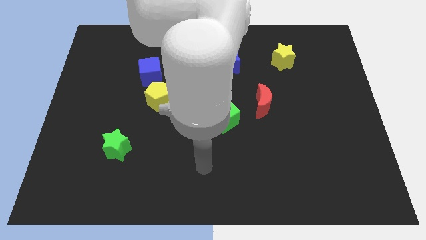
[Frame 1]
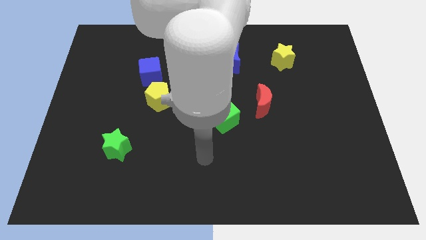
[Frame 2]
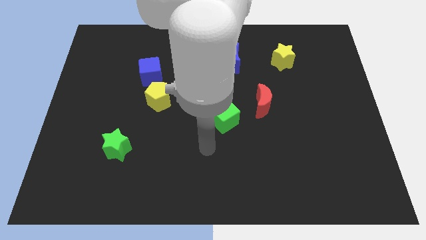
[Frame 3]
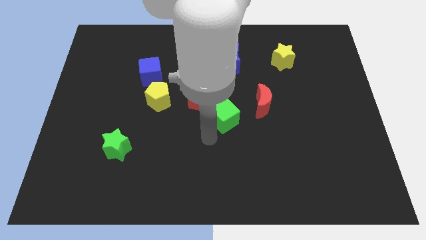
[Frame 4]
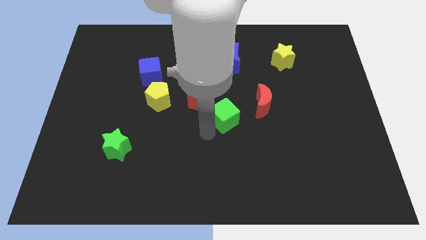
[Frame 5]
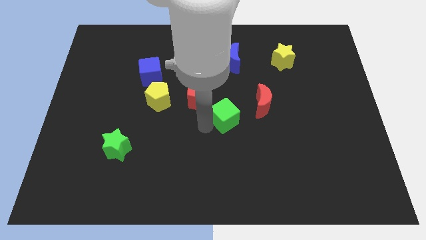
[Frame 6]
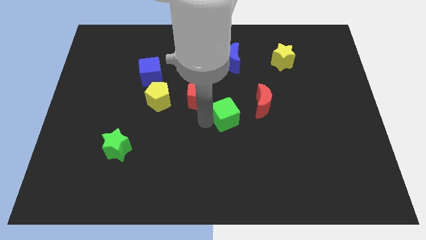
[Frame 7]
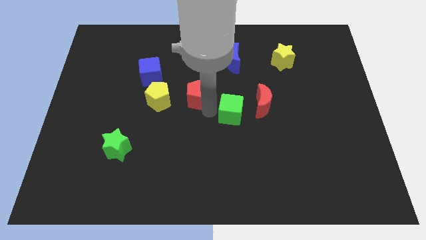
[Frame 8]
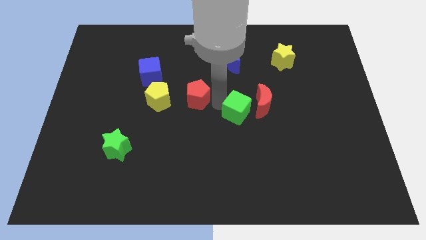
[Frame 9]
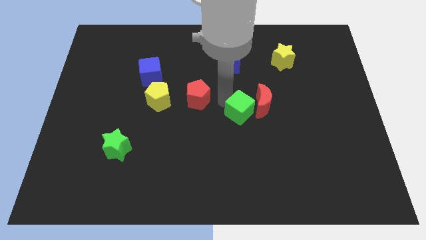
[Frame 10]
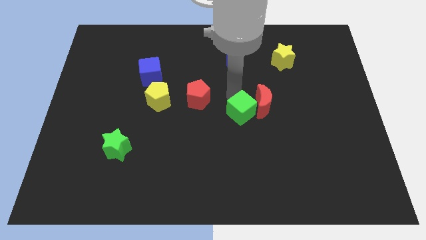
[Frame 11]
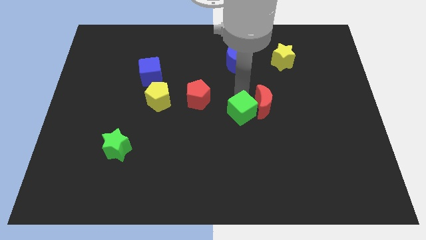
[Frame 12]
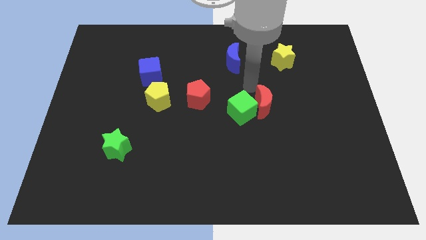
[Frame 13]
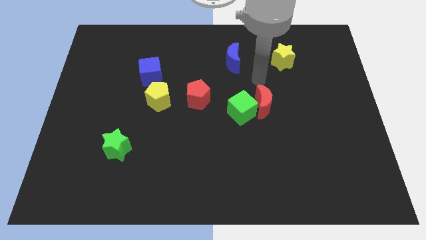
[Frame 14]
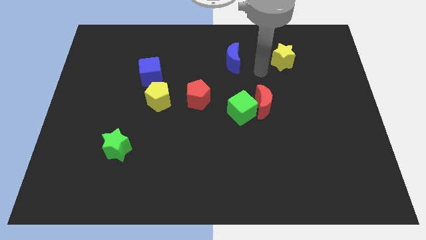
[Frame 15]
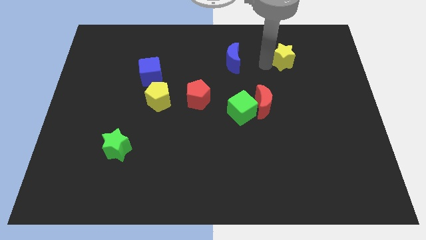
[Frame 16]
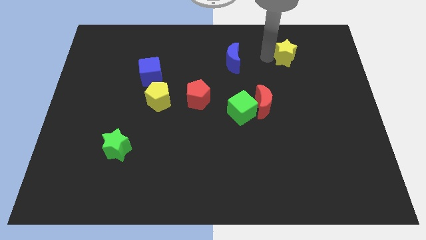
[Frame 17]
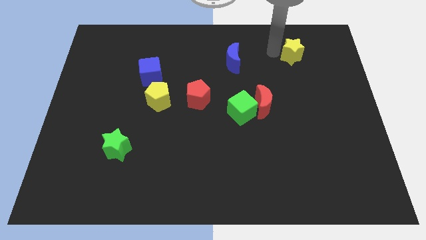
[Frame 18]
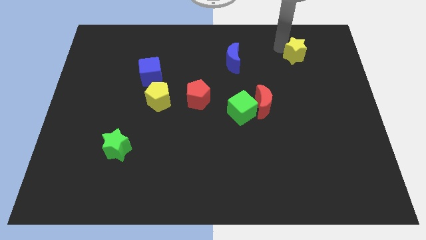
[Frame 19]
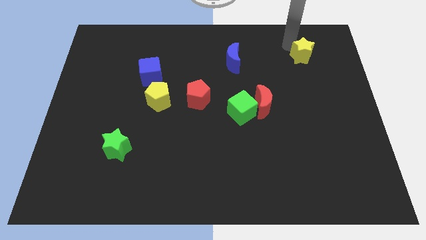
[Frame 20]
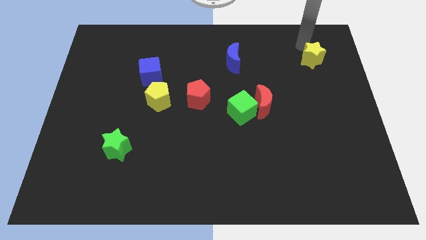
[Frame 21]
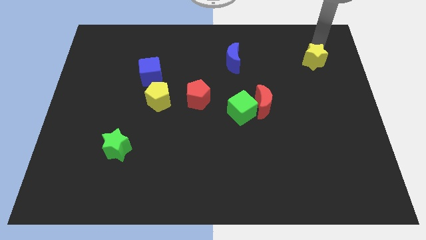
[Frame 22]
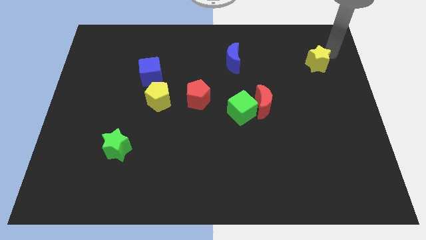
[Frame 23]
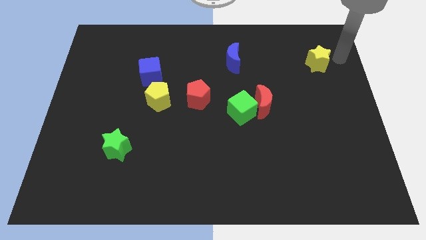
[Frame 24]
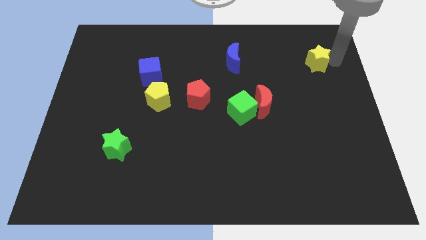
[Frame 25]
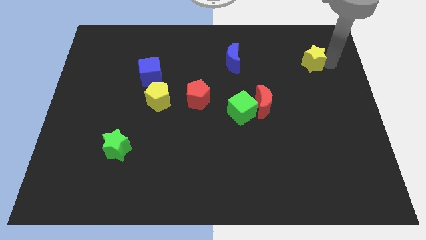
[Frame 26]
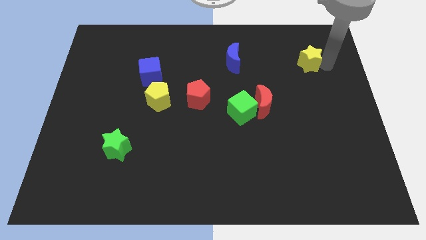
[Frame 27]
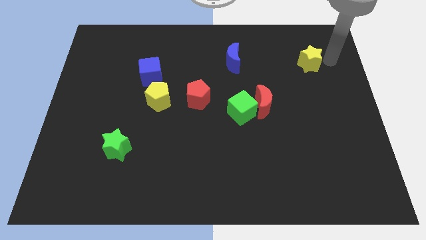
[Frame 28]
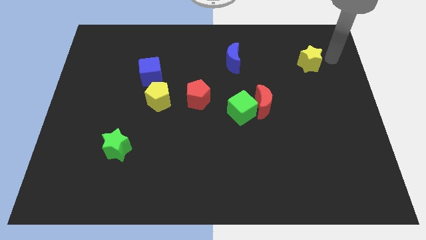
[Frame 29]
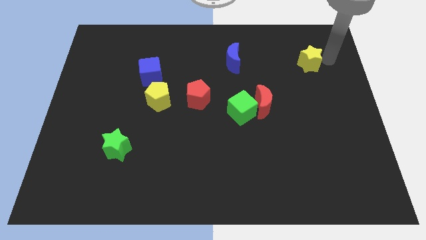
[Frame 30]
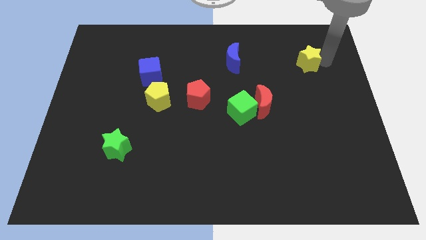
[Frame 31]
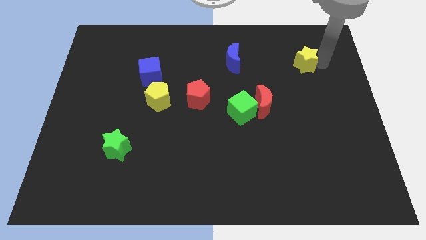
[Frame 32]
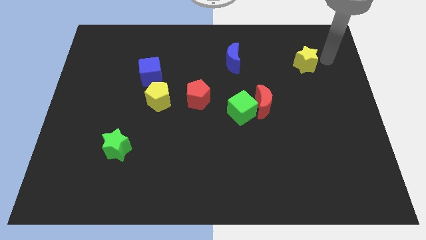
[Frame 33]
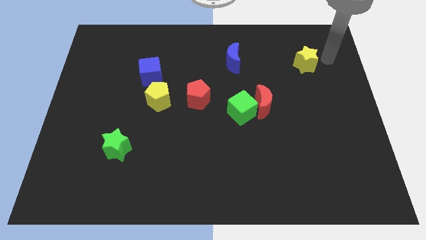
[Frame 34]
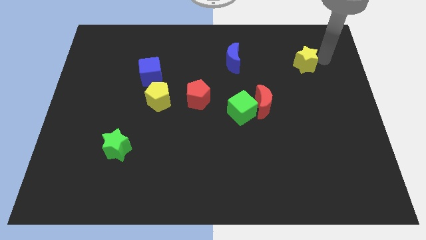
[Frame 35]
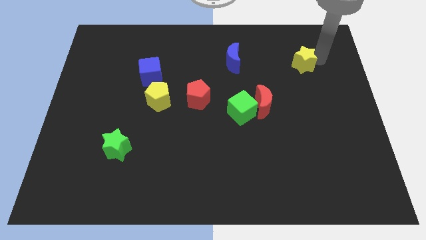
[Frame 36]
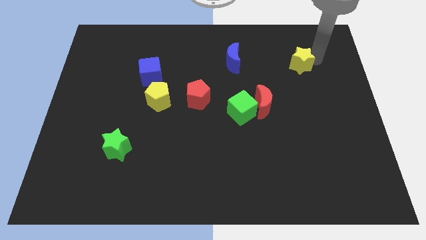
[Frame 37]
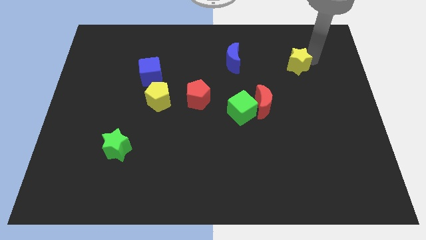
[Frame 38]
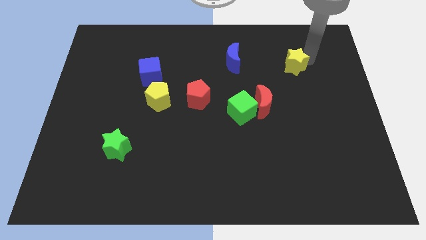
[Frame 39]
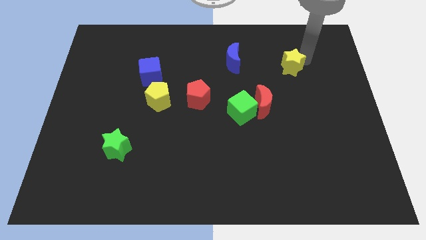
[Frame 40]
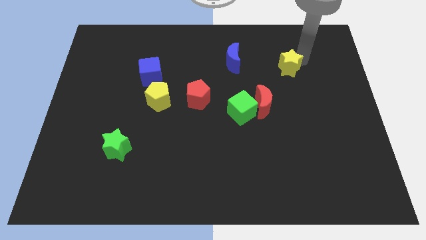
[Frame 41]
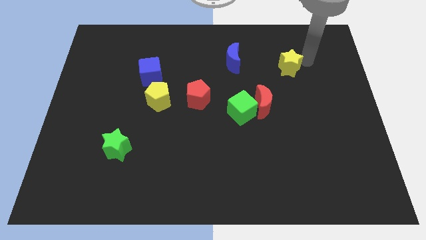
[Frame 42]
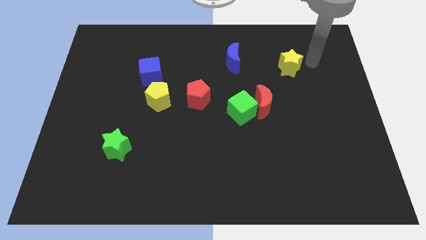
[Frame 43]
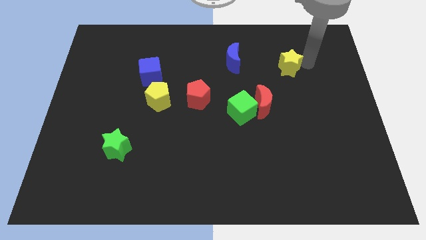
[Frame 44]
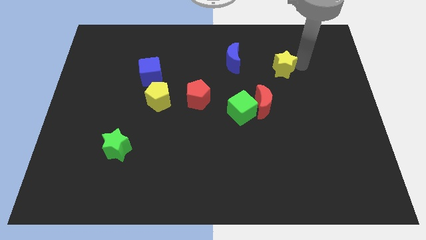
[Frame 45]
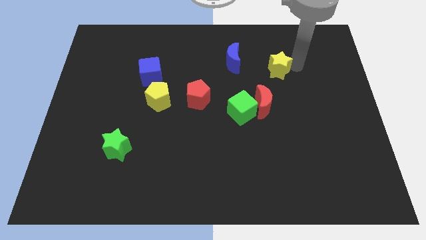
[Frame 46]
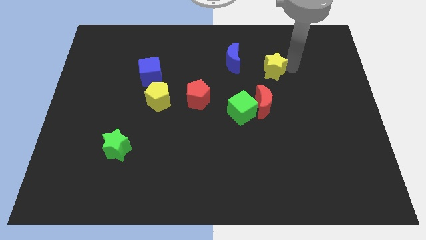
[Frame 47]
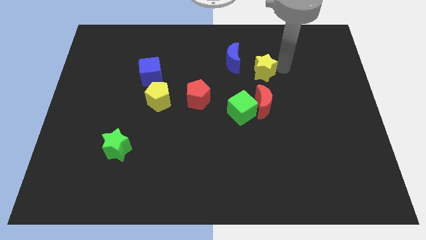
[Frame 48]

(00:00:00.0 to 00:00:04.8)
slightly move the yellow star downwards and then to the left

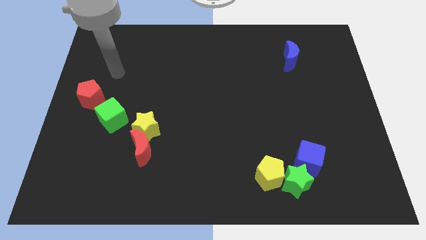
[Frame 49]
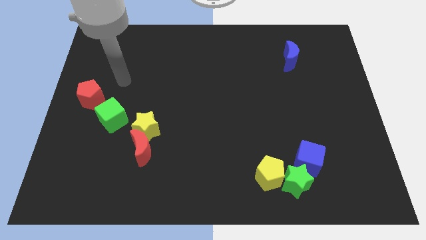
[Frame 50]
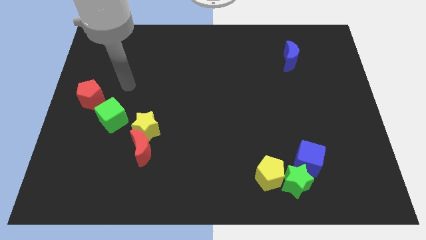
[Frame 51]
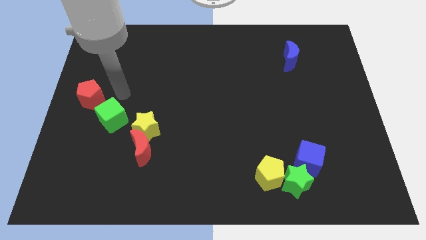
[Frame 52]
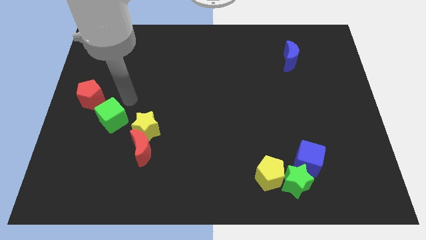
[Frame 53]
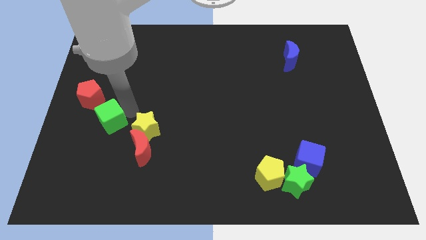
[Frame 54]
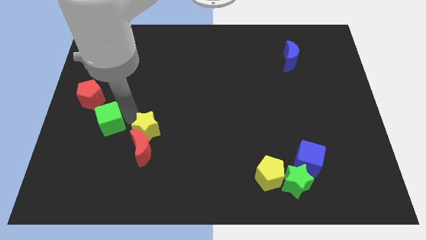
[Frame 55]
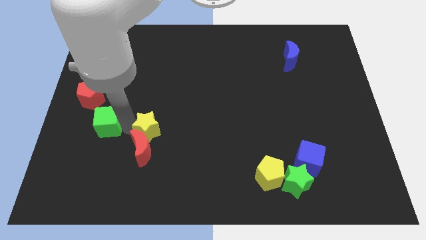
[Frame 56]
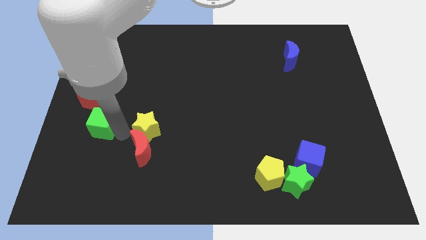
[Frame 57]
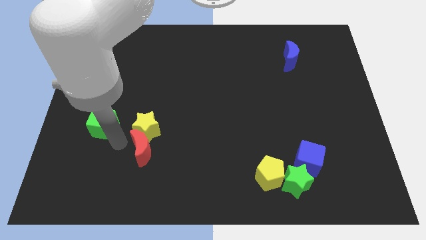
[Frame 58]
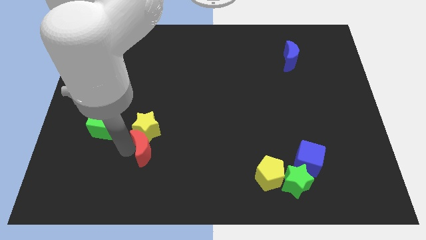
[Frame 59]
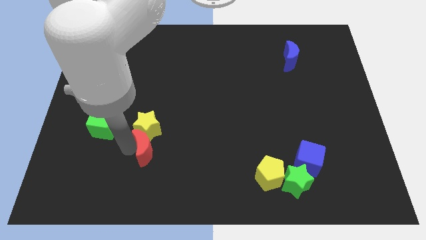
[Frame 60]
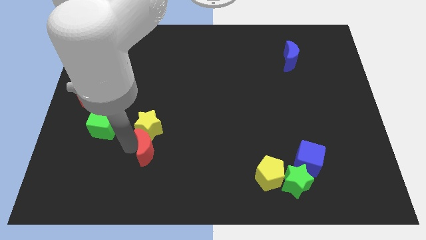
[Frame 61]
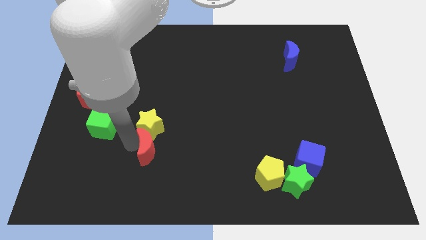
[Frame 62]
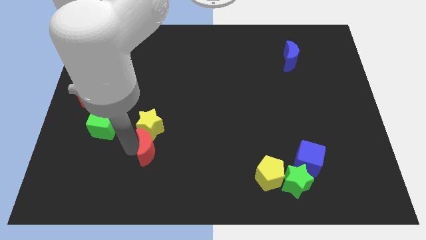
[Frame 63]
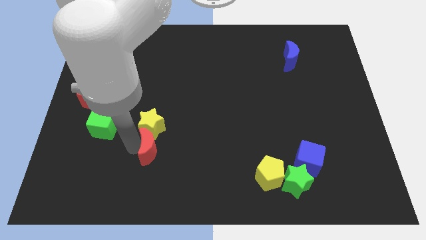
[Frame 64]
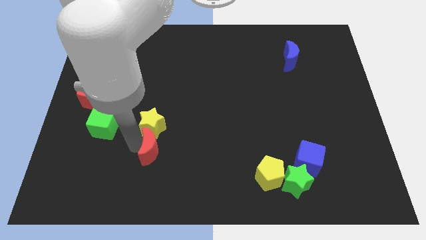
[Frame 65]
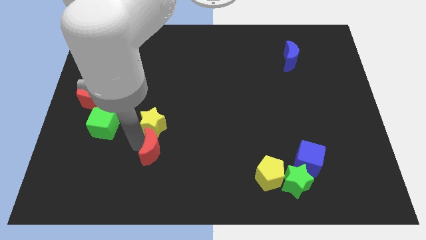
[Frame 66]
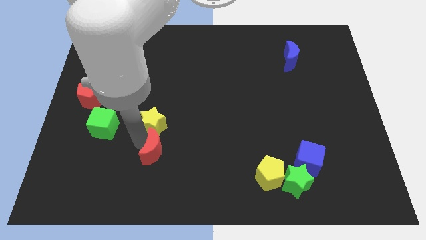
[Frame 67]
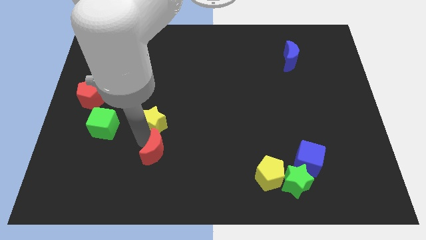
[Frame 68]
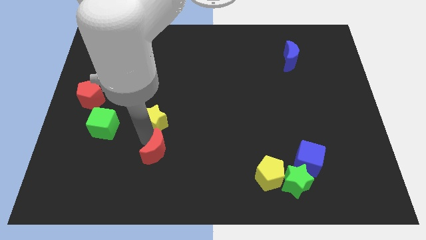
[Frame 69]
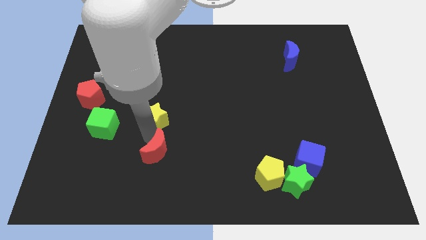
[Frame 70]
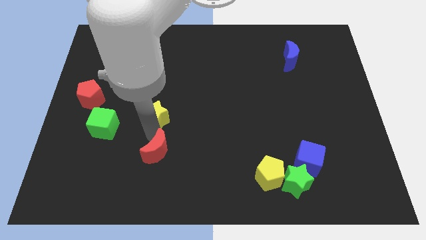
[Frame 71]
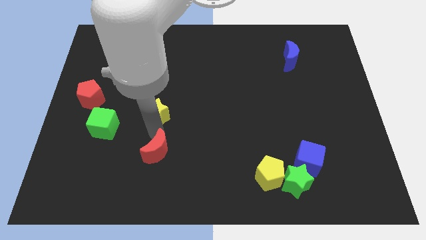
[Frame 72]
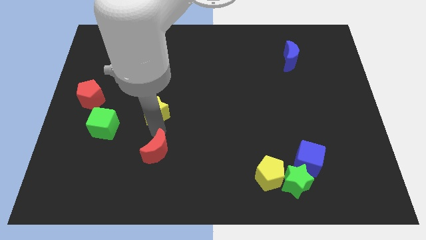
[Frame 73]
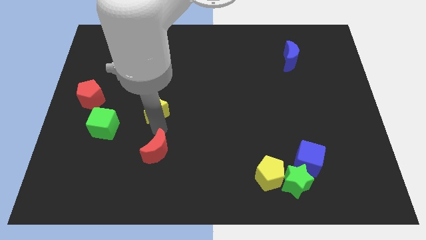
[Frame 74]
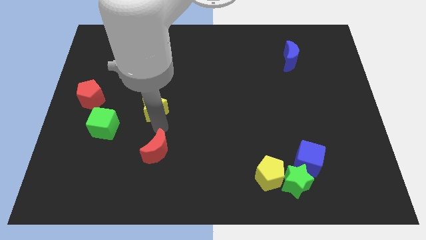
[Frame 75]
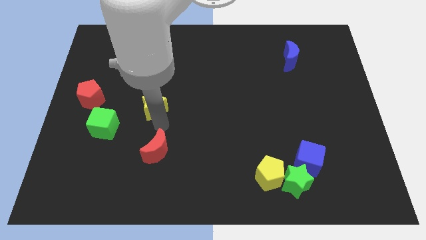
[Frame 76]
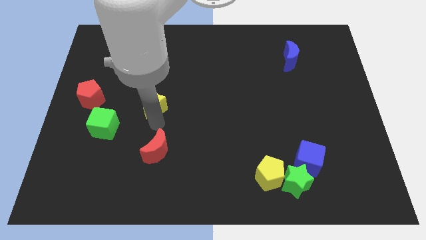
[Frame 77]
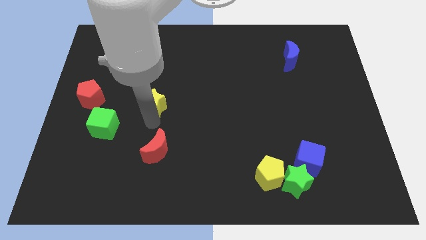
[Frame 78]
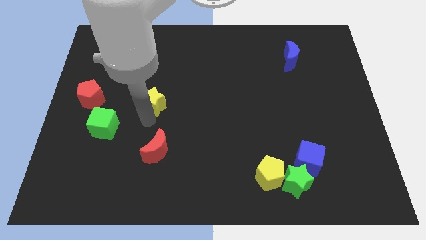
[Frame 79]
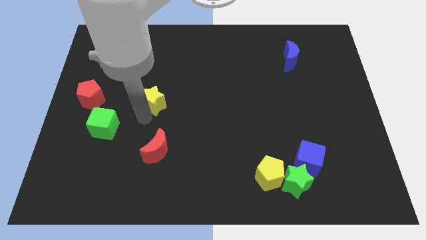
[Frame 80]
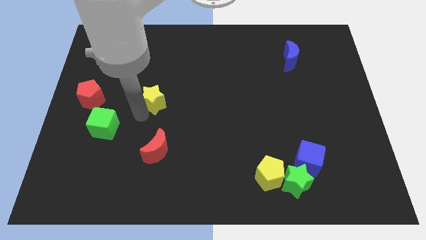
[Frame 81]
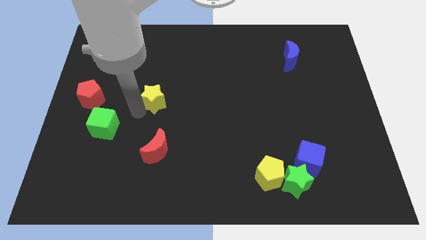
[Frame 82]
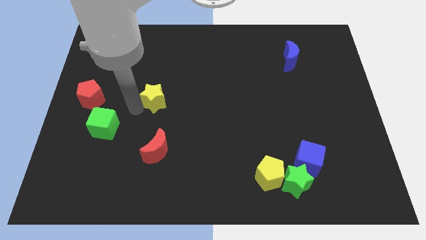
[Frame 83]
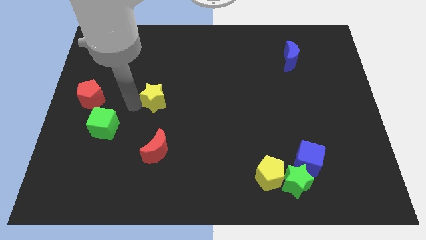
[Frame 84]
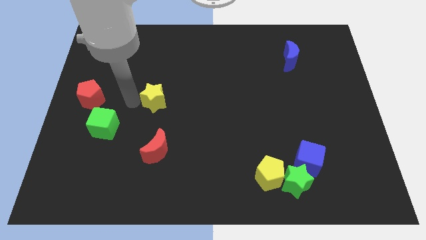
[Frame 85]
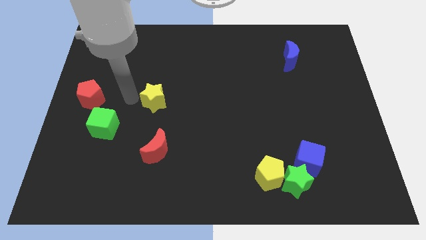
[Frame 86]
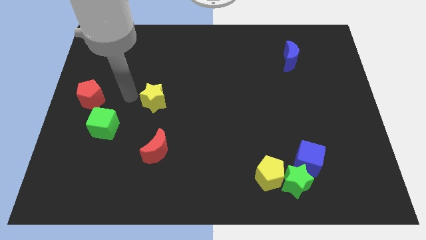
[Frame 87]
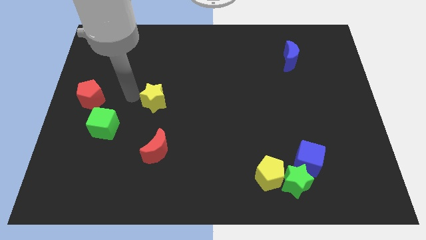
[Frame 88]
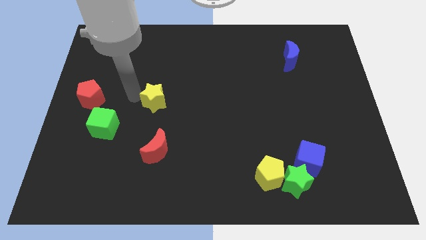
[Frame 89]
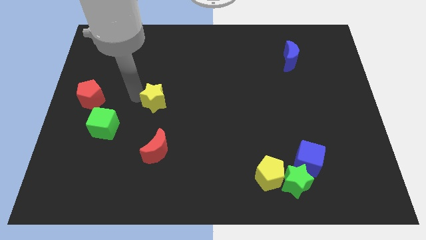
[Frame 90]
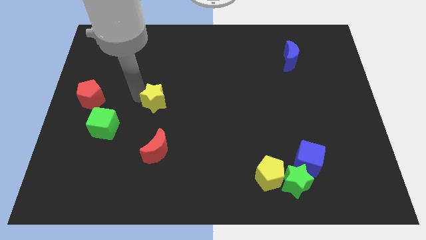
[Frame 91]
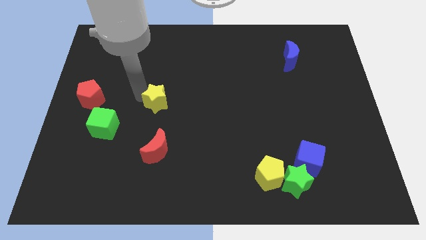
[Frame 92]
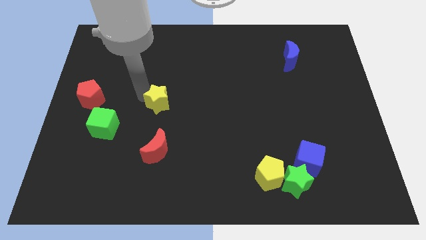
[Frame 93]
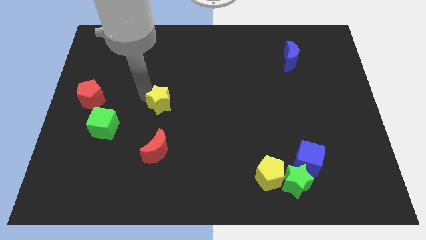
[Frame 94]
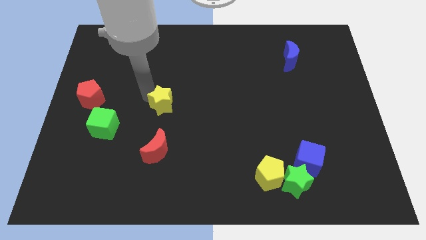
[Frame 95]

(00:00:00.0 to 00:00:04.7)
move the yellow star somewhat up and to the right
